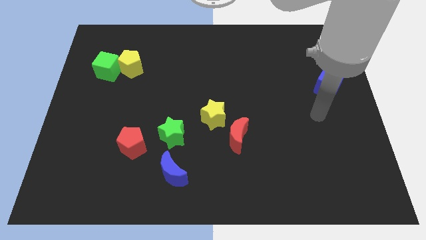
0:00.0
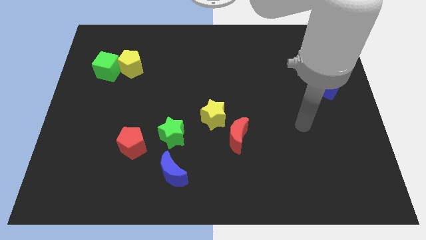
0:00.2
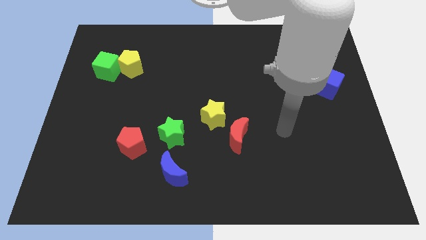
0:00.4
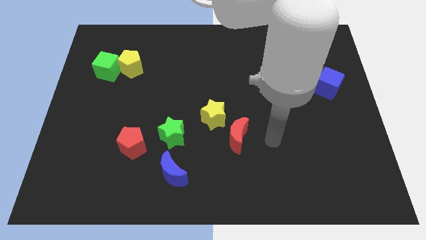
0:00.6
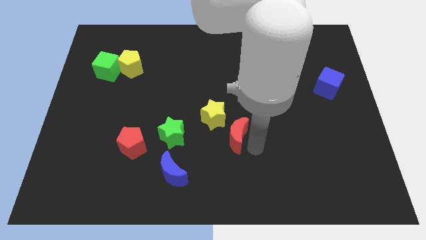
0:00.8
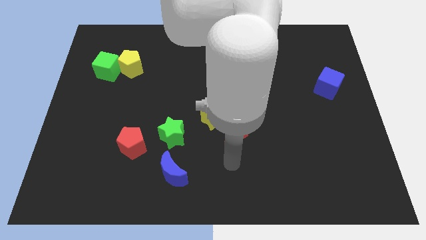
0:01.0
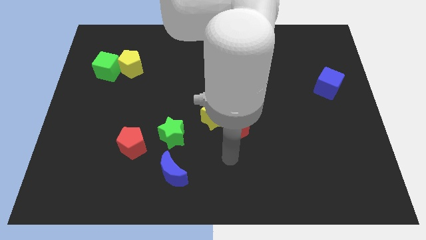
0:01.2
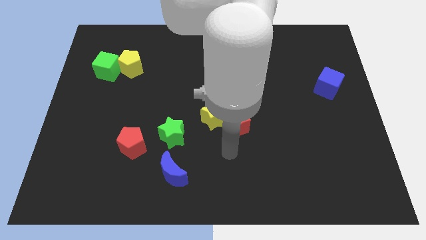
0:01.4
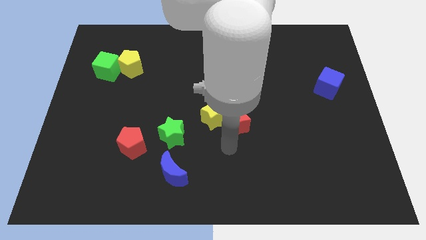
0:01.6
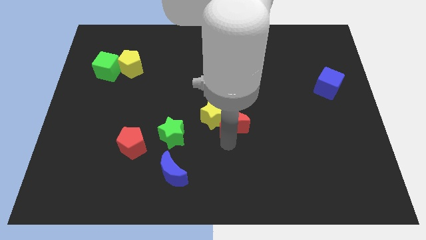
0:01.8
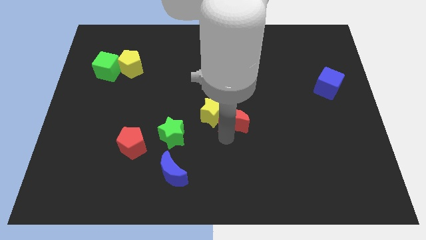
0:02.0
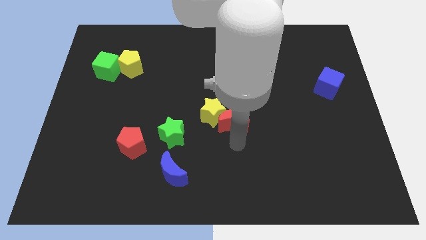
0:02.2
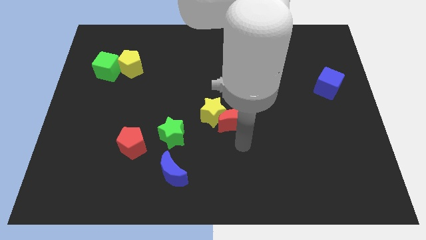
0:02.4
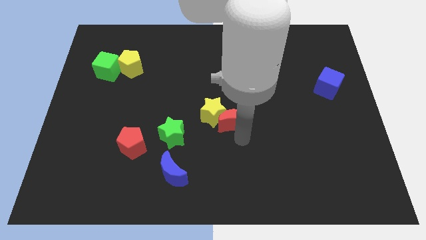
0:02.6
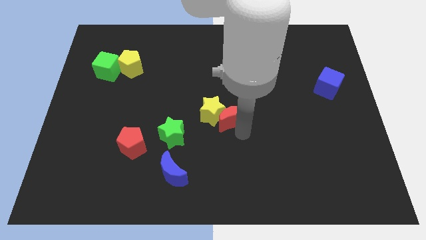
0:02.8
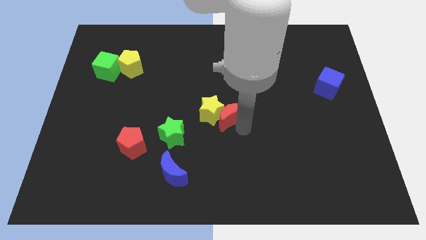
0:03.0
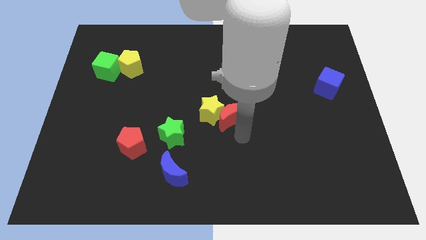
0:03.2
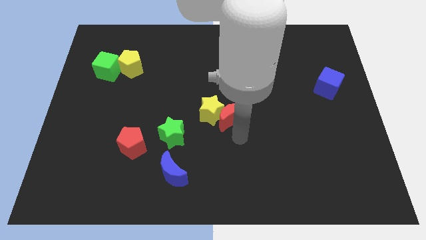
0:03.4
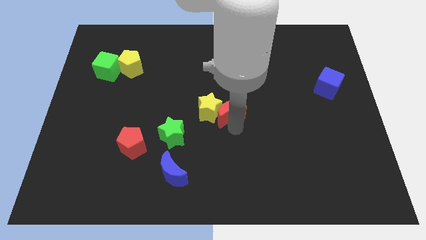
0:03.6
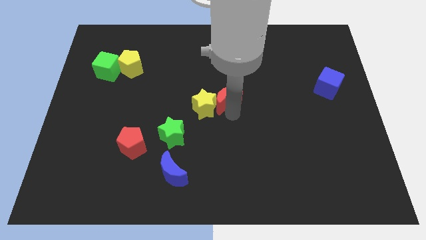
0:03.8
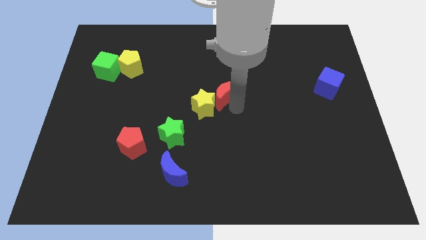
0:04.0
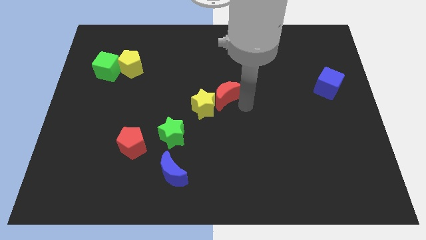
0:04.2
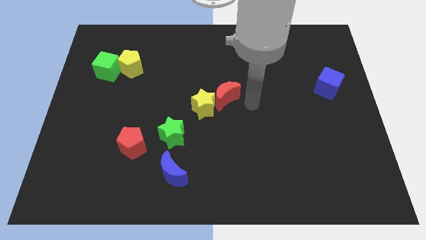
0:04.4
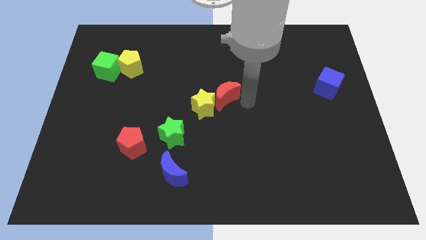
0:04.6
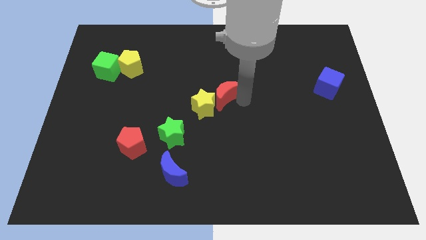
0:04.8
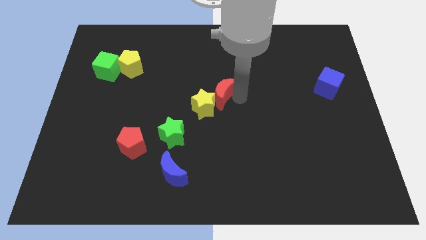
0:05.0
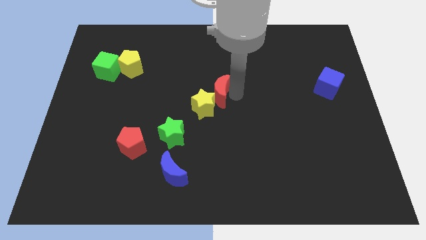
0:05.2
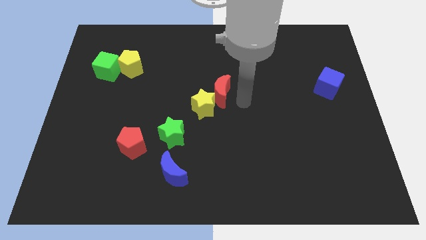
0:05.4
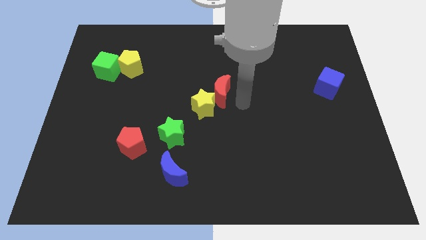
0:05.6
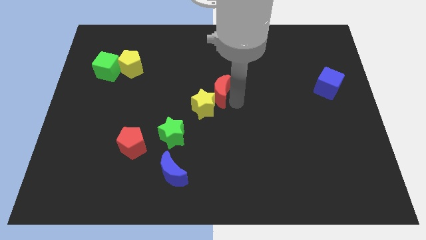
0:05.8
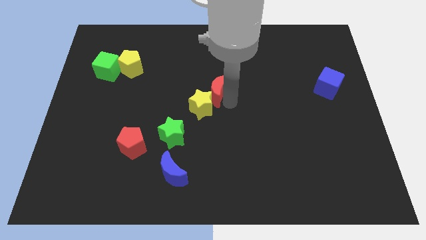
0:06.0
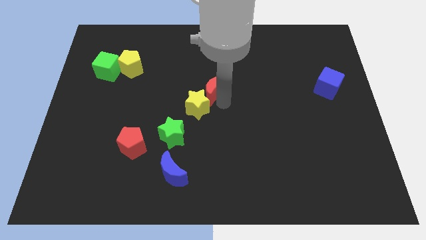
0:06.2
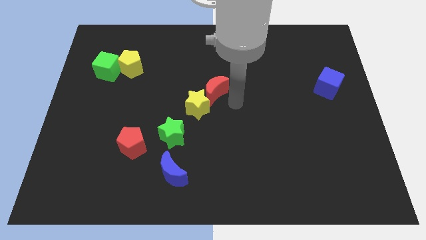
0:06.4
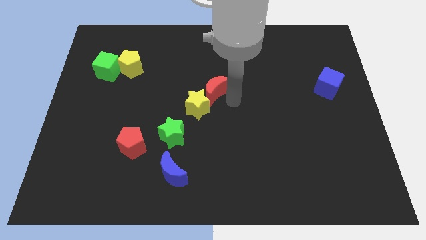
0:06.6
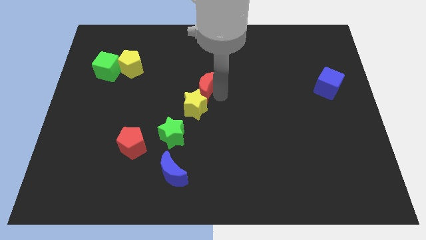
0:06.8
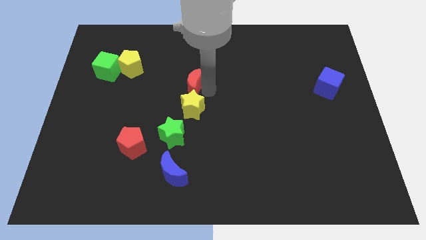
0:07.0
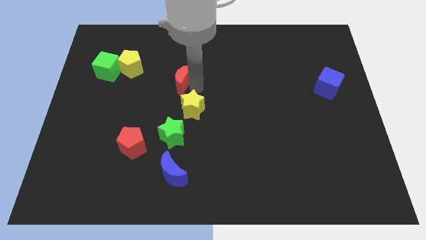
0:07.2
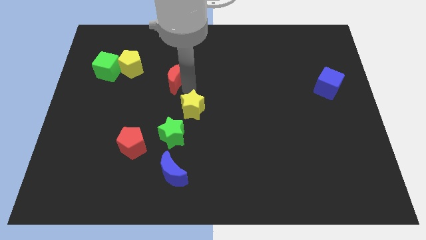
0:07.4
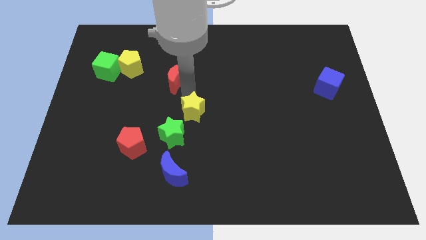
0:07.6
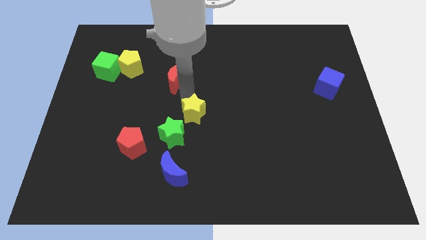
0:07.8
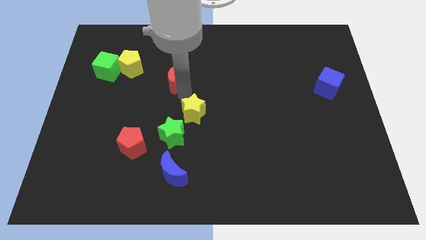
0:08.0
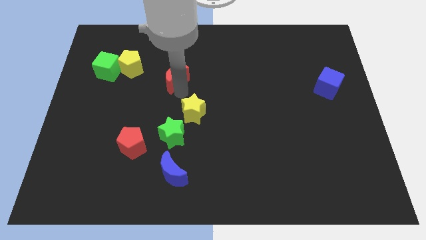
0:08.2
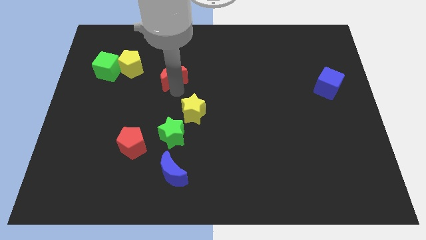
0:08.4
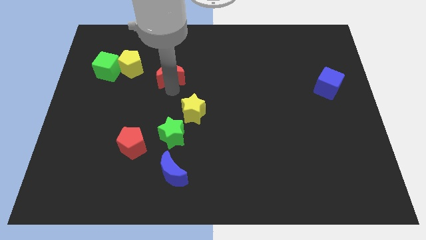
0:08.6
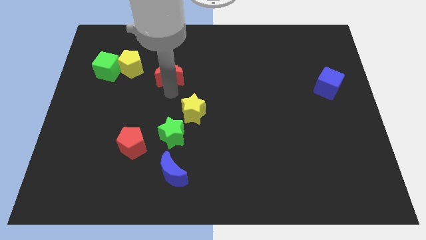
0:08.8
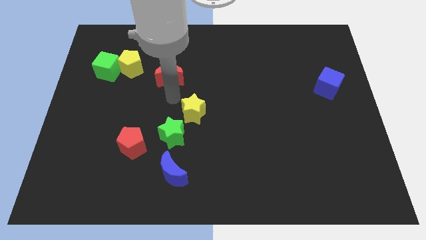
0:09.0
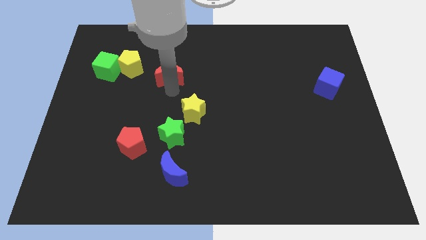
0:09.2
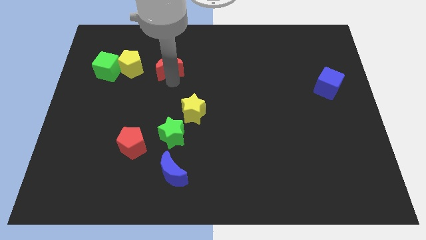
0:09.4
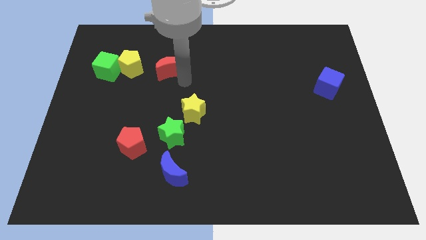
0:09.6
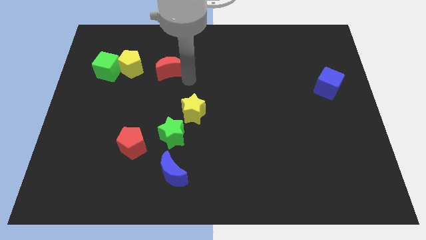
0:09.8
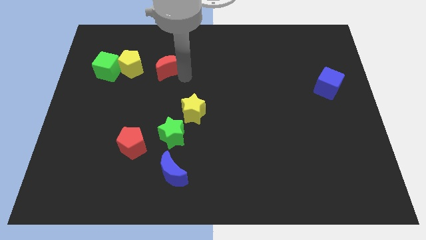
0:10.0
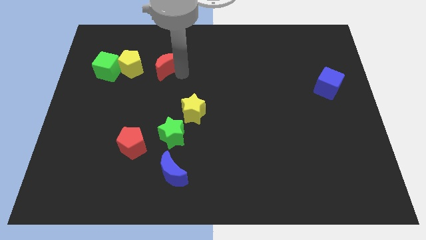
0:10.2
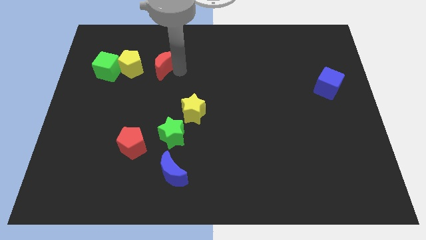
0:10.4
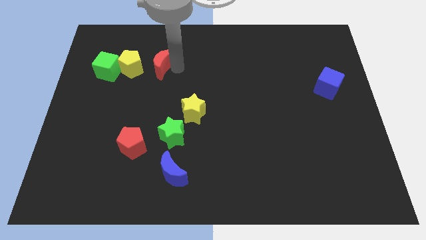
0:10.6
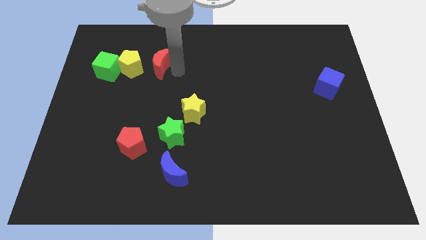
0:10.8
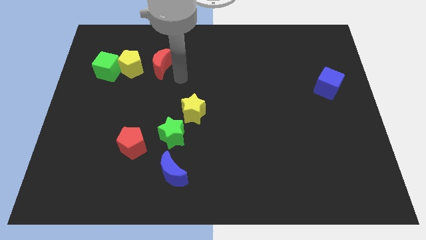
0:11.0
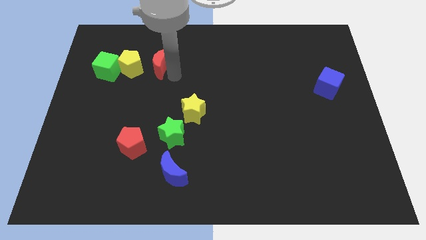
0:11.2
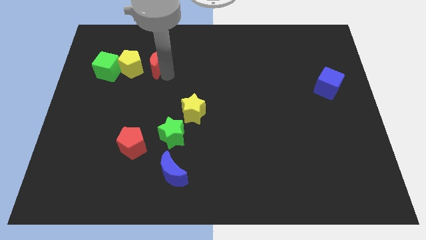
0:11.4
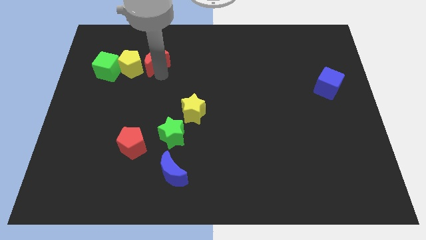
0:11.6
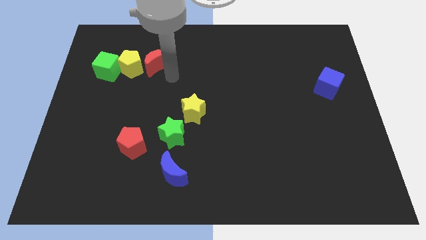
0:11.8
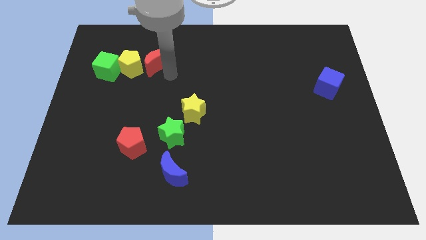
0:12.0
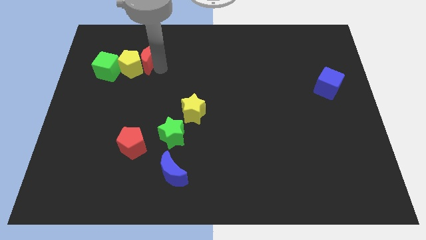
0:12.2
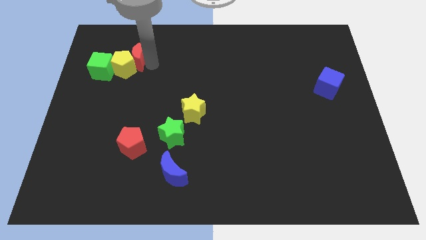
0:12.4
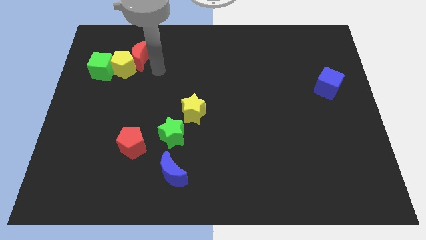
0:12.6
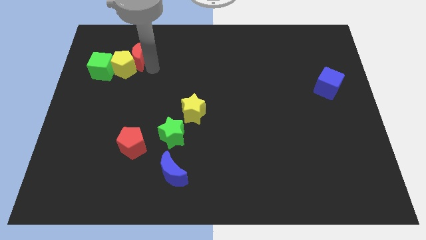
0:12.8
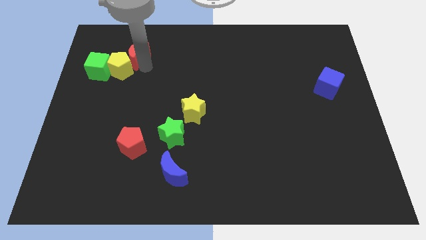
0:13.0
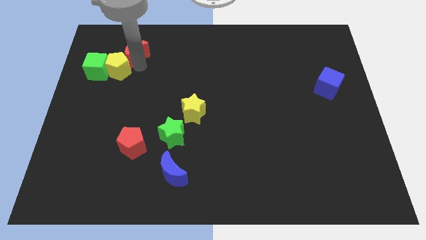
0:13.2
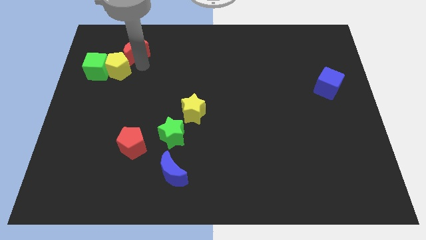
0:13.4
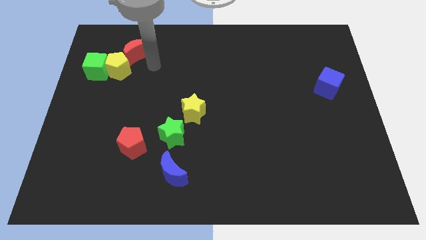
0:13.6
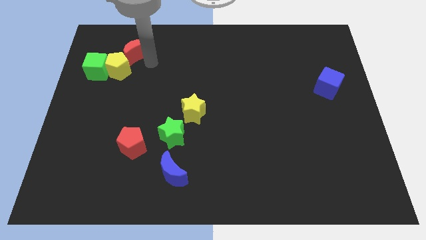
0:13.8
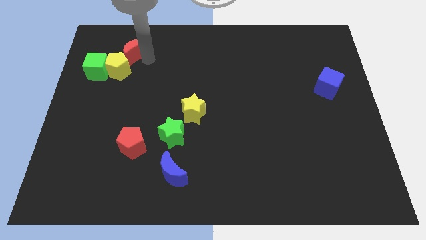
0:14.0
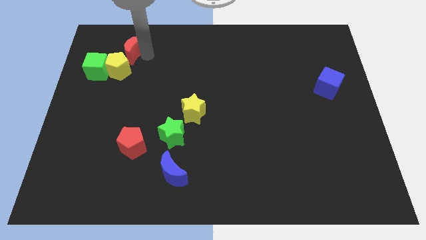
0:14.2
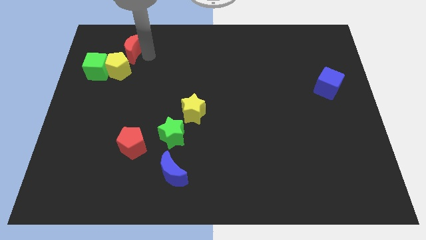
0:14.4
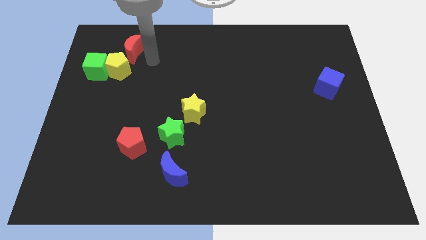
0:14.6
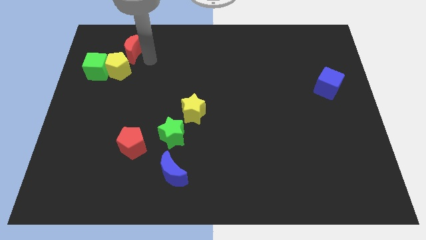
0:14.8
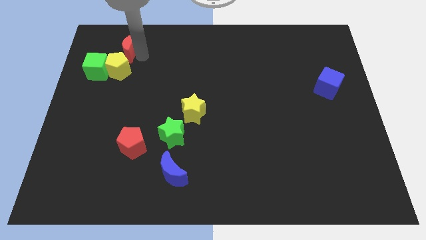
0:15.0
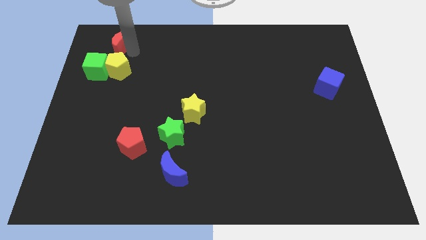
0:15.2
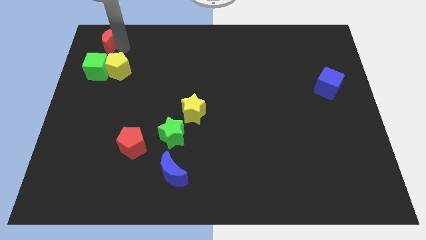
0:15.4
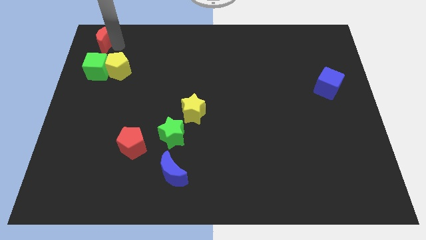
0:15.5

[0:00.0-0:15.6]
push the red moon to the upper left corner
